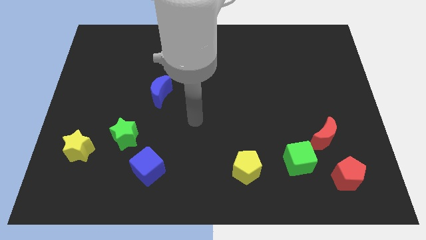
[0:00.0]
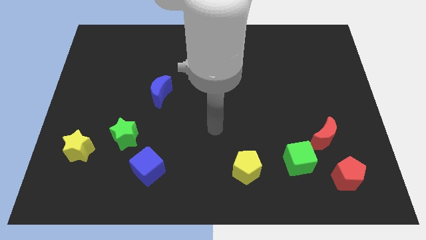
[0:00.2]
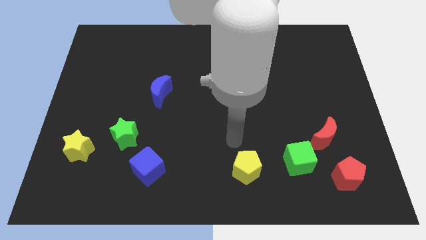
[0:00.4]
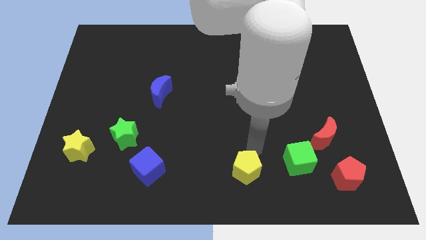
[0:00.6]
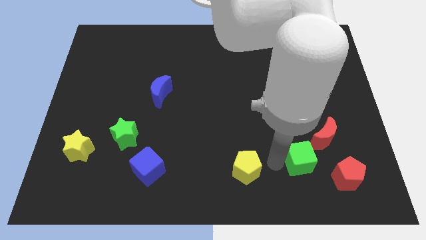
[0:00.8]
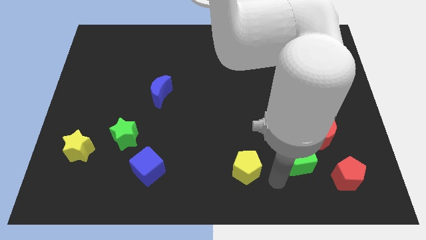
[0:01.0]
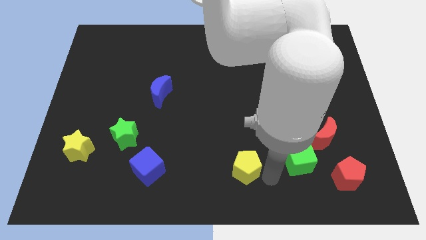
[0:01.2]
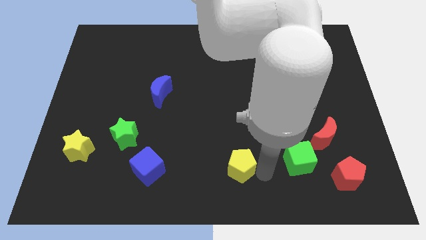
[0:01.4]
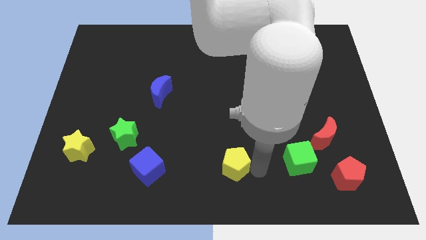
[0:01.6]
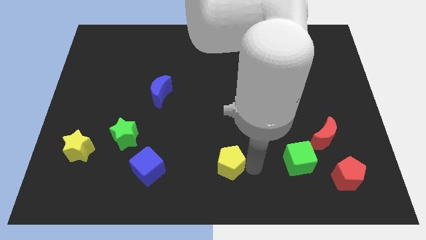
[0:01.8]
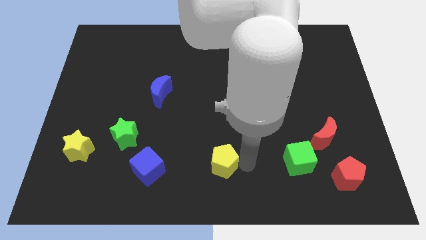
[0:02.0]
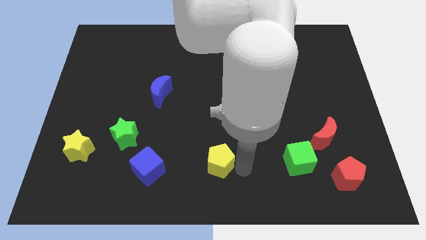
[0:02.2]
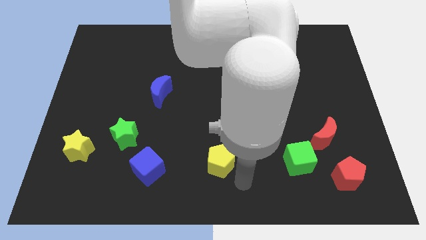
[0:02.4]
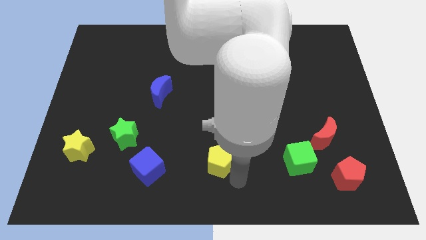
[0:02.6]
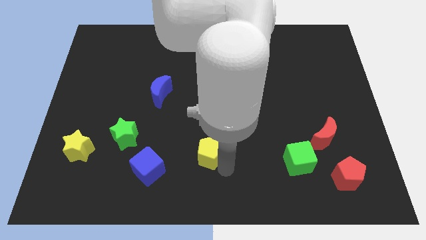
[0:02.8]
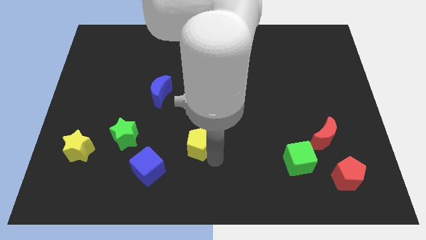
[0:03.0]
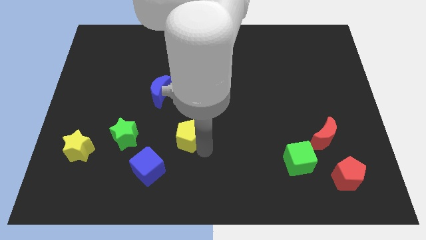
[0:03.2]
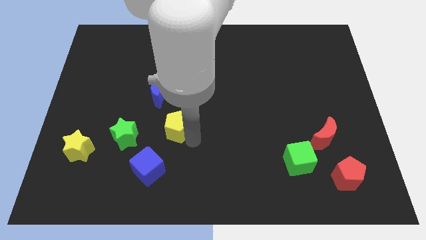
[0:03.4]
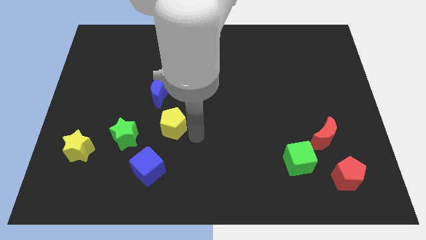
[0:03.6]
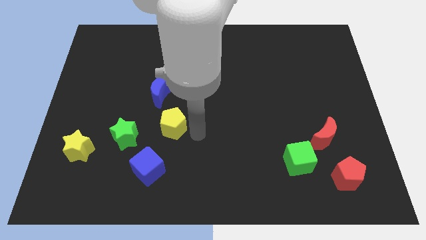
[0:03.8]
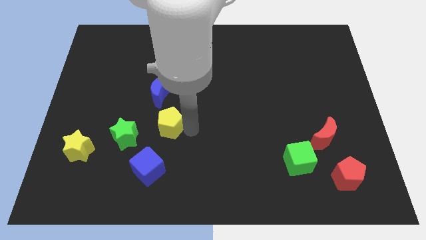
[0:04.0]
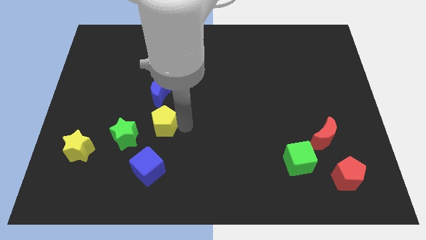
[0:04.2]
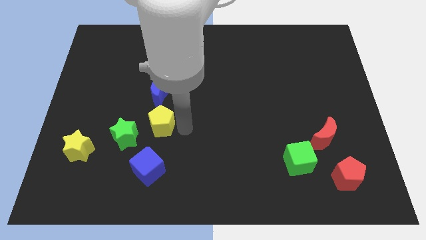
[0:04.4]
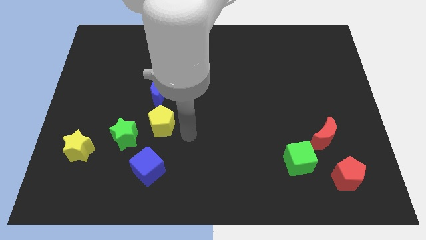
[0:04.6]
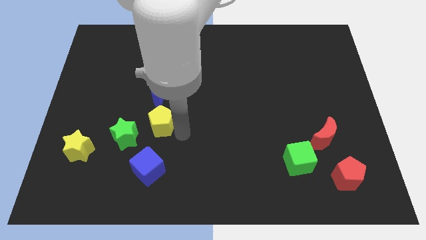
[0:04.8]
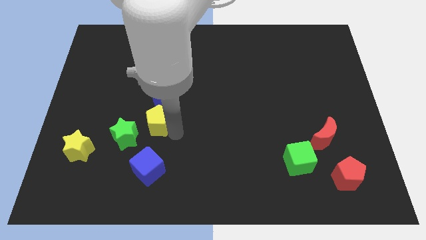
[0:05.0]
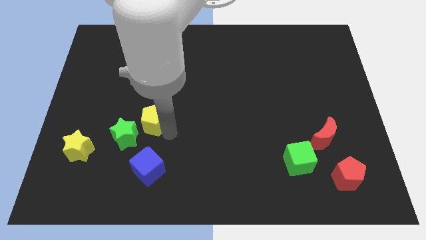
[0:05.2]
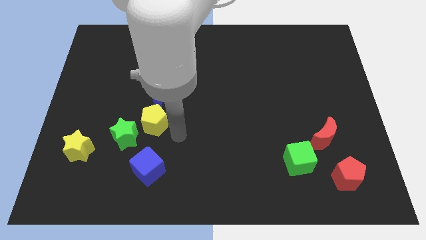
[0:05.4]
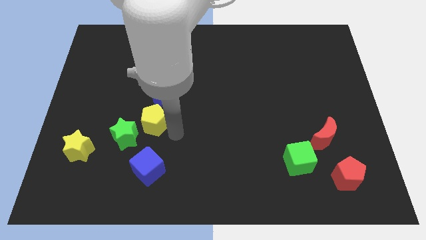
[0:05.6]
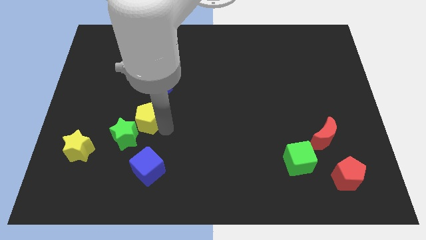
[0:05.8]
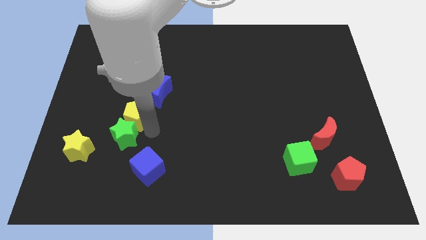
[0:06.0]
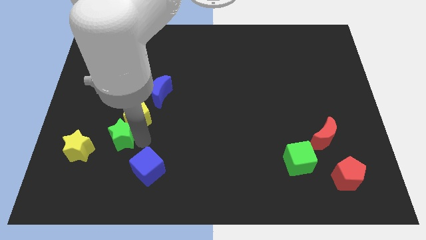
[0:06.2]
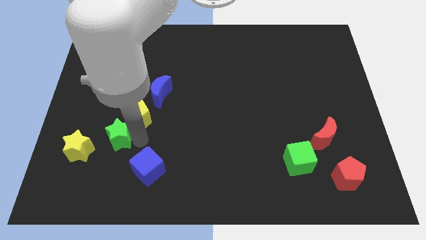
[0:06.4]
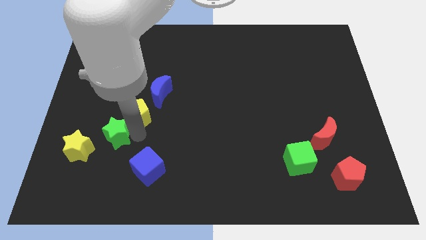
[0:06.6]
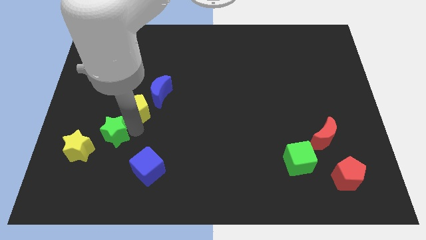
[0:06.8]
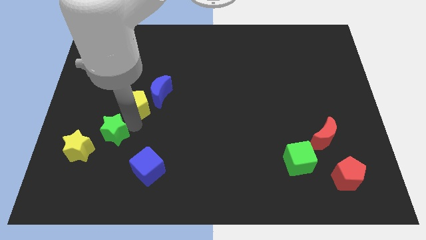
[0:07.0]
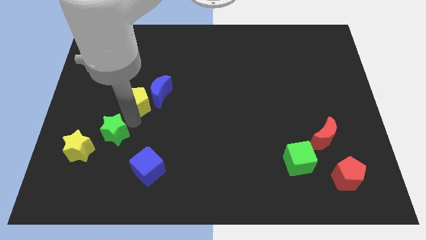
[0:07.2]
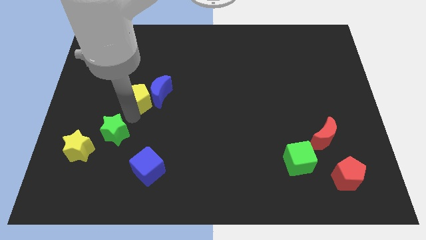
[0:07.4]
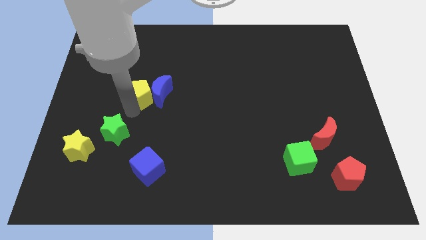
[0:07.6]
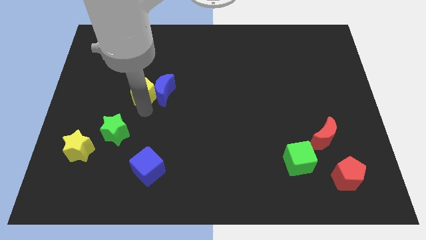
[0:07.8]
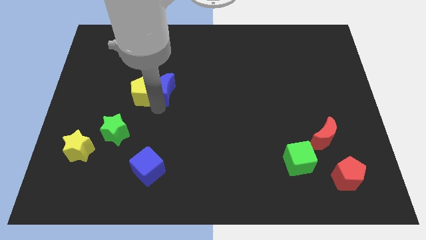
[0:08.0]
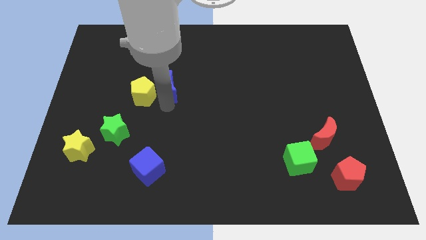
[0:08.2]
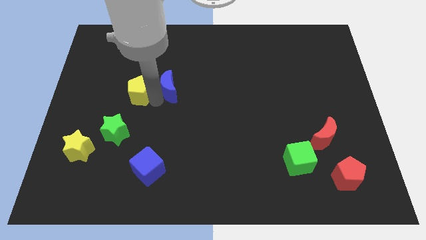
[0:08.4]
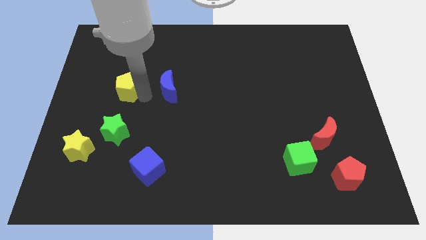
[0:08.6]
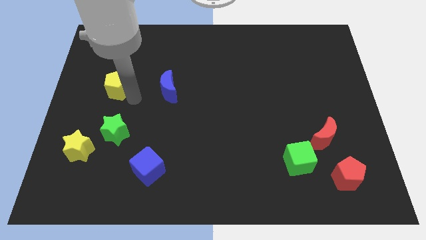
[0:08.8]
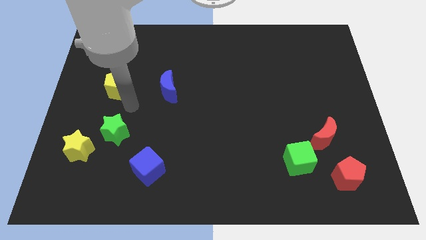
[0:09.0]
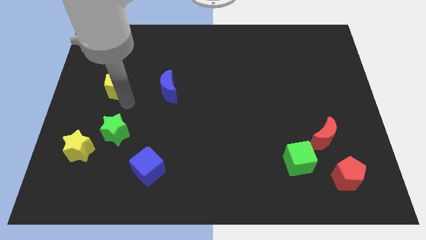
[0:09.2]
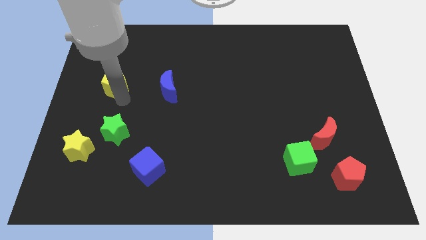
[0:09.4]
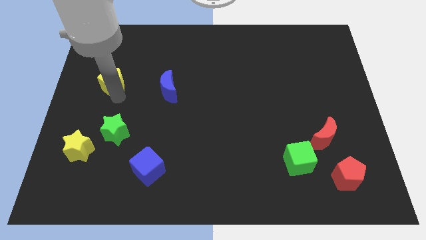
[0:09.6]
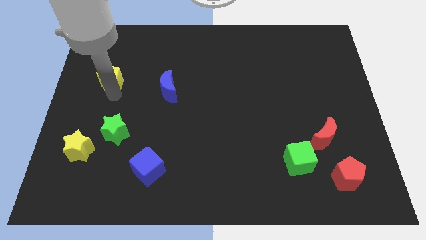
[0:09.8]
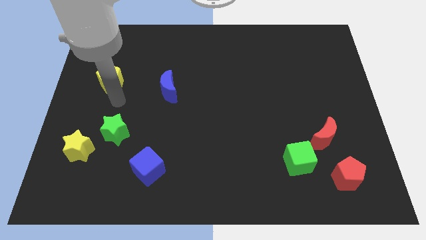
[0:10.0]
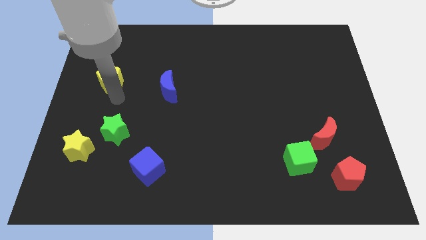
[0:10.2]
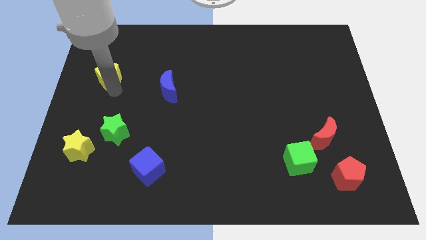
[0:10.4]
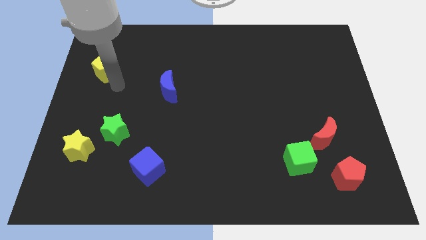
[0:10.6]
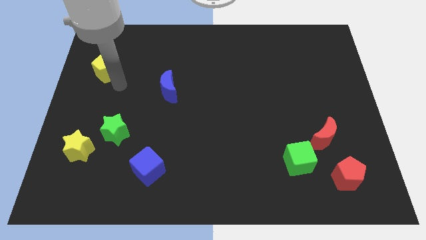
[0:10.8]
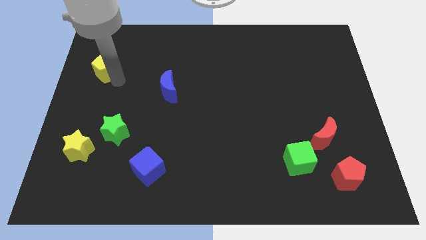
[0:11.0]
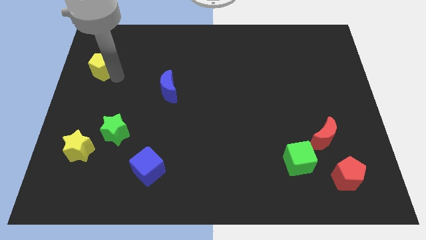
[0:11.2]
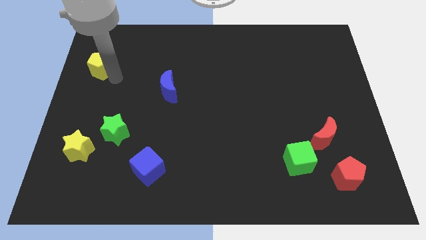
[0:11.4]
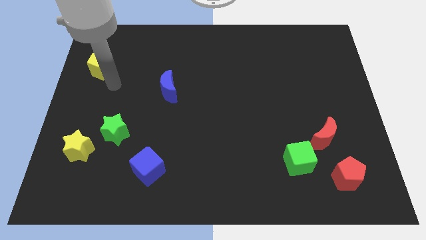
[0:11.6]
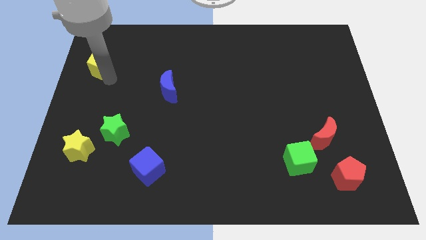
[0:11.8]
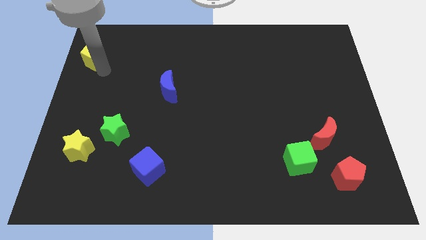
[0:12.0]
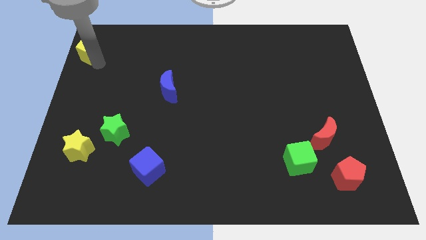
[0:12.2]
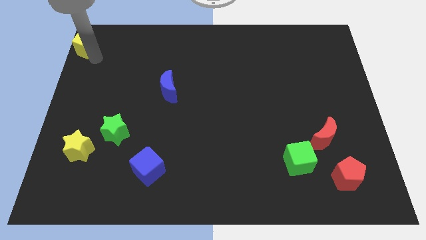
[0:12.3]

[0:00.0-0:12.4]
push the yellow pentagon to the top left of the board
